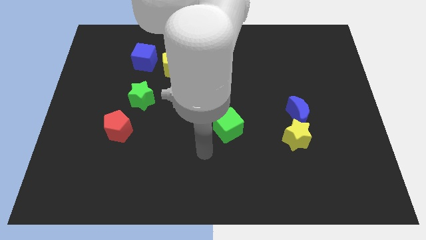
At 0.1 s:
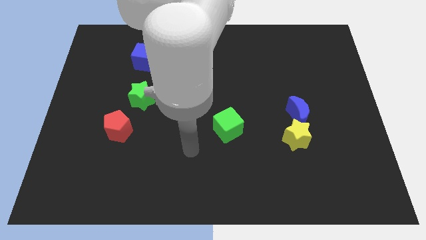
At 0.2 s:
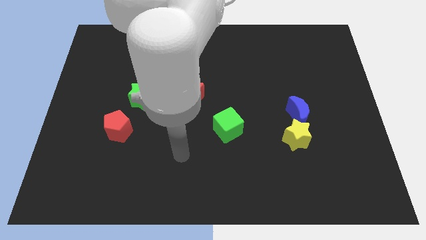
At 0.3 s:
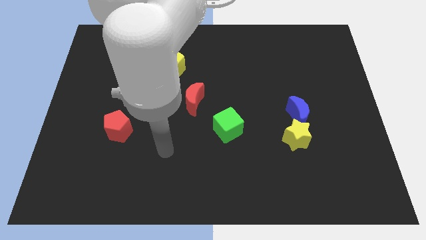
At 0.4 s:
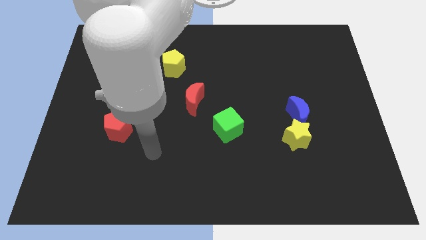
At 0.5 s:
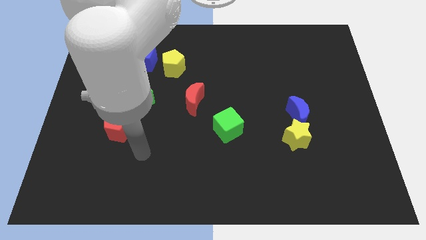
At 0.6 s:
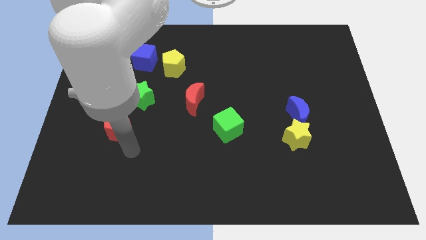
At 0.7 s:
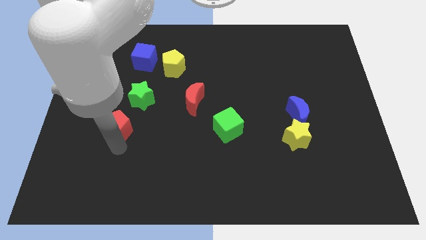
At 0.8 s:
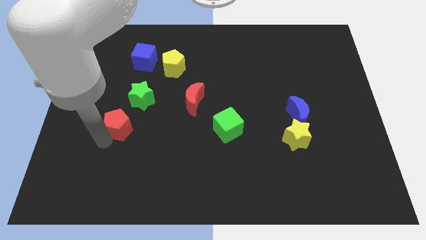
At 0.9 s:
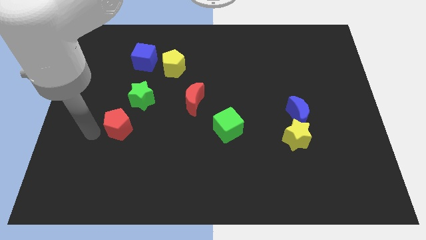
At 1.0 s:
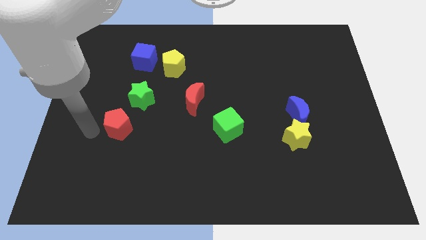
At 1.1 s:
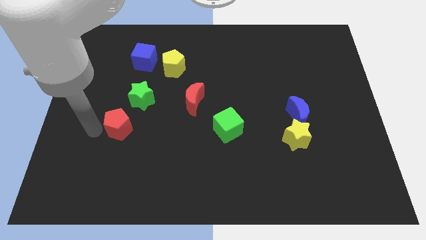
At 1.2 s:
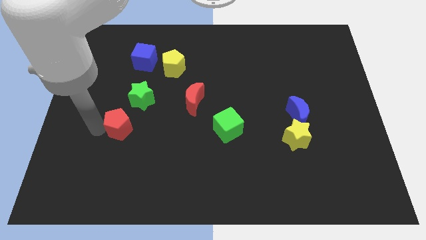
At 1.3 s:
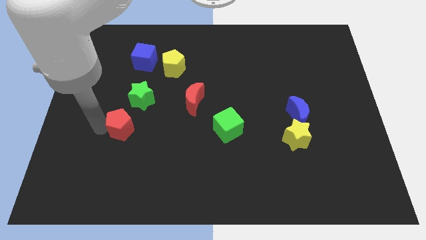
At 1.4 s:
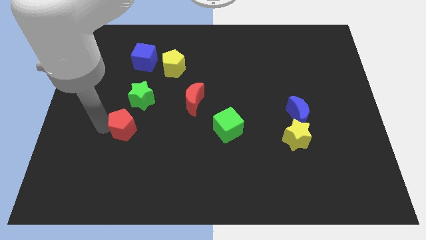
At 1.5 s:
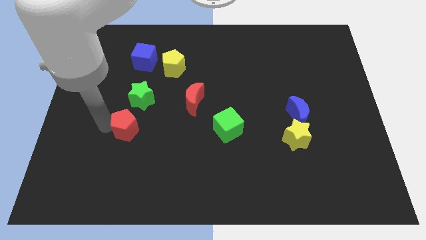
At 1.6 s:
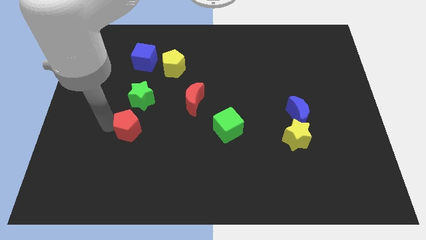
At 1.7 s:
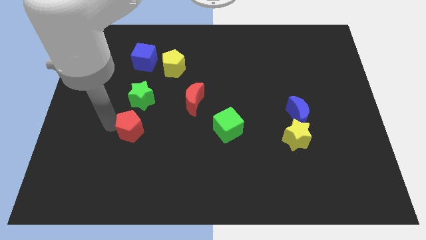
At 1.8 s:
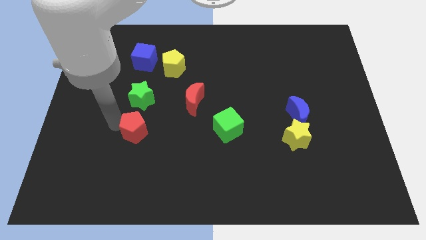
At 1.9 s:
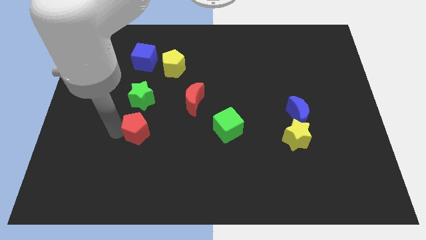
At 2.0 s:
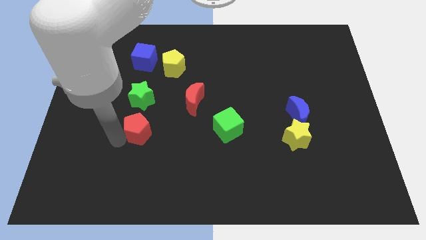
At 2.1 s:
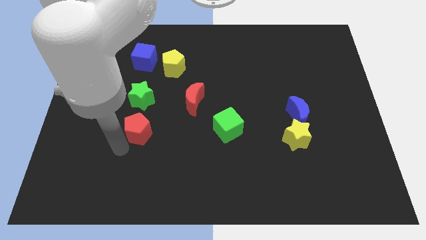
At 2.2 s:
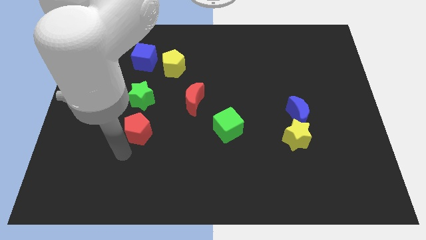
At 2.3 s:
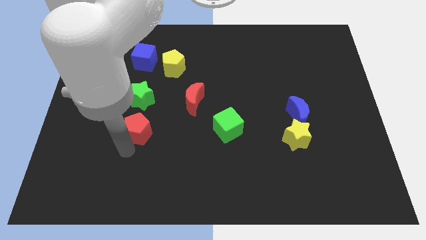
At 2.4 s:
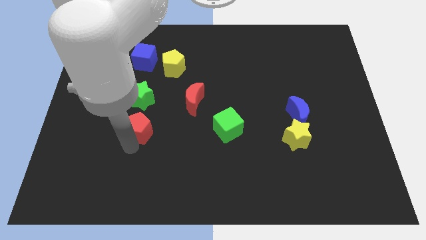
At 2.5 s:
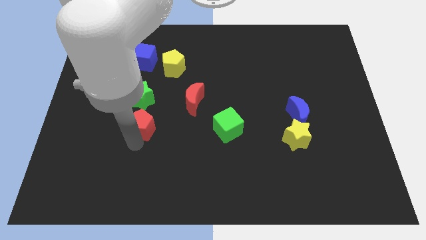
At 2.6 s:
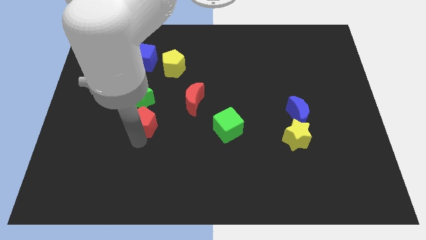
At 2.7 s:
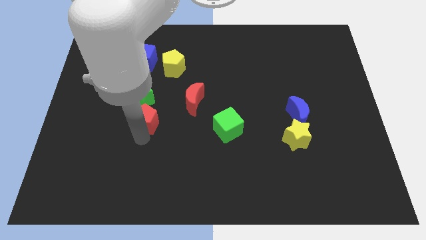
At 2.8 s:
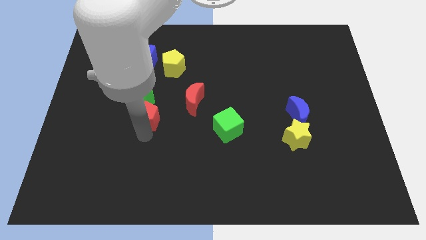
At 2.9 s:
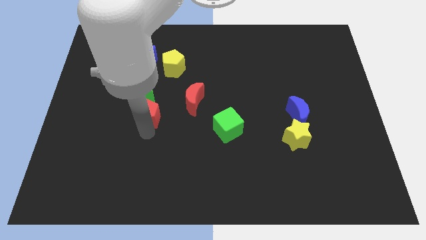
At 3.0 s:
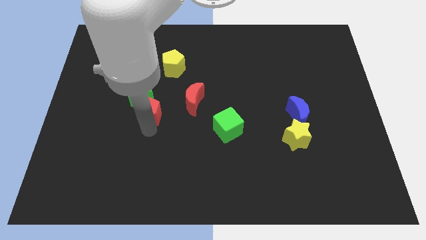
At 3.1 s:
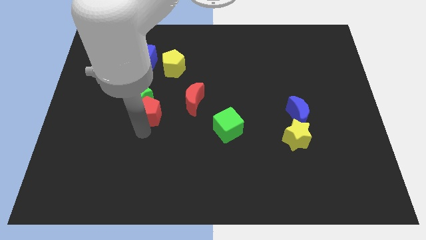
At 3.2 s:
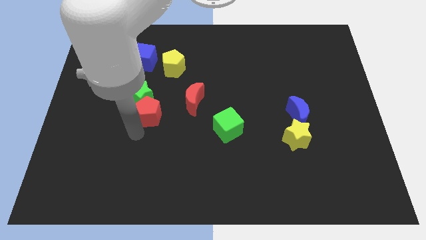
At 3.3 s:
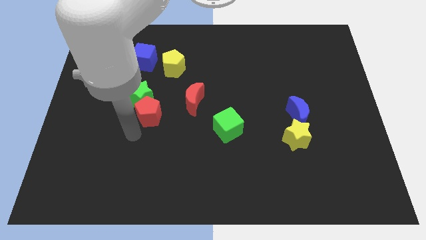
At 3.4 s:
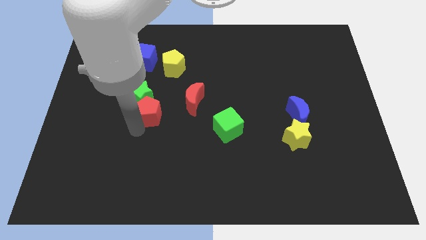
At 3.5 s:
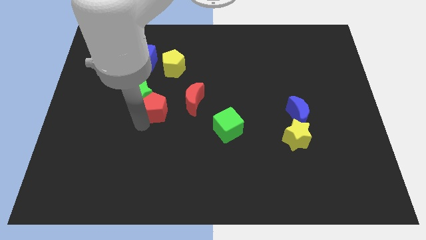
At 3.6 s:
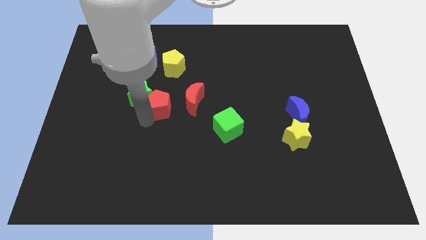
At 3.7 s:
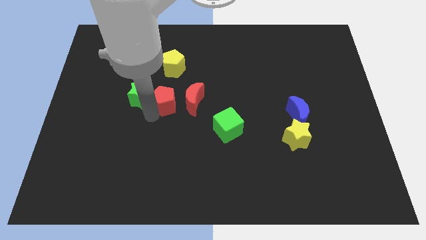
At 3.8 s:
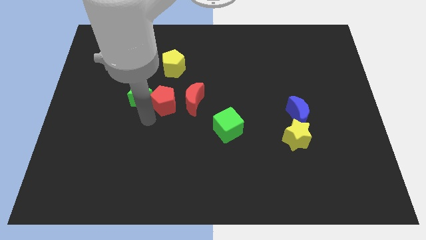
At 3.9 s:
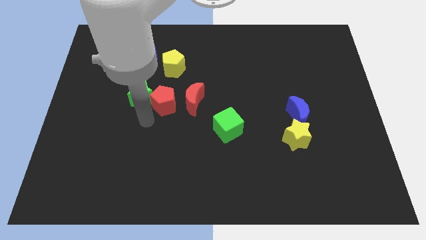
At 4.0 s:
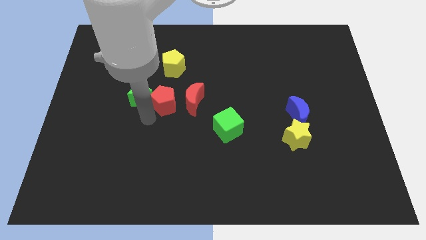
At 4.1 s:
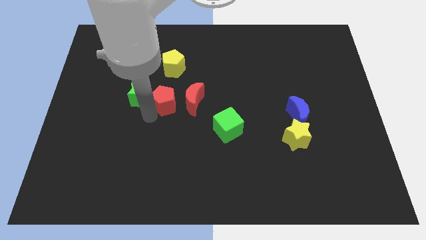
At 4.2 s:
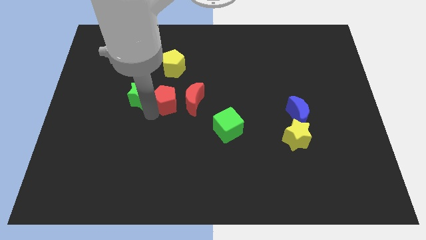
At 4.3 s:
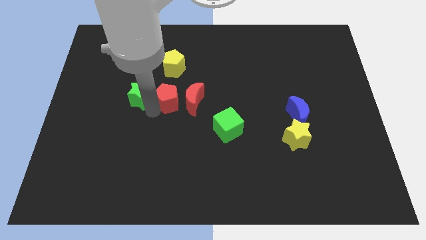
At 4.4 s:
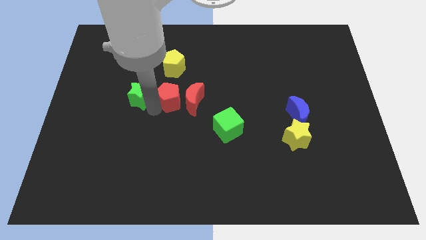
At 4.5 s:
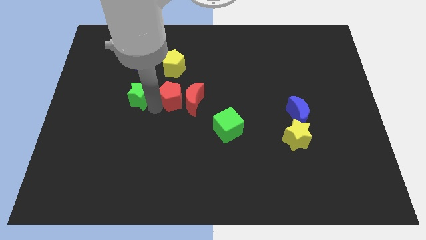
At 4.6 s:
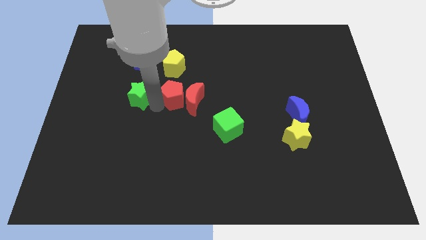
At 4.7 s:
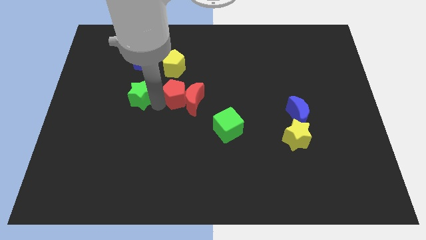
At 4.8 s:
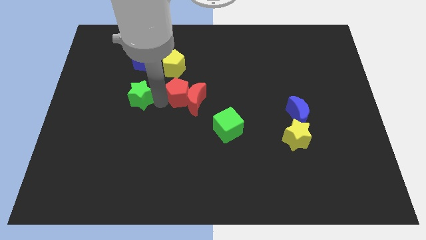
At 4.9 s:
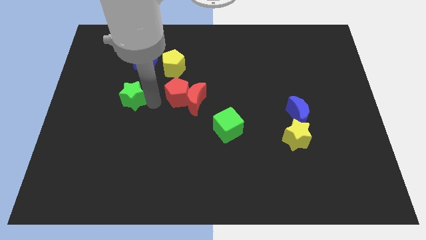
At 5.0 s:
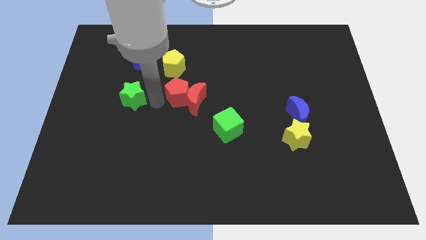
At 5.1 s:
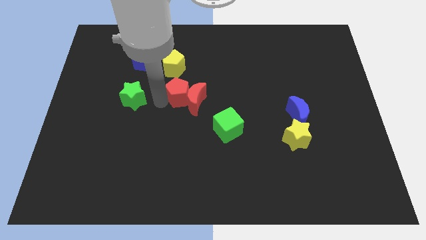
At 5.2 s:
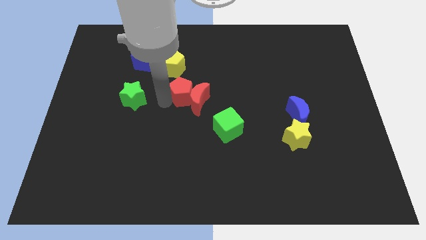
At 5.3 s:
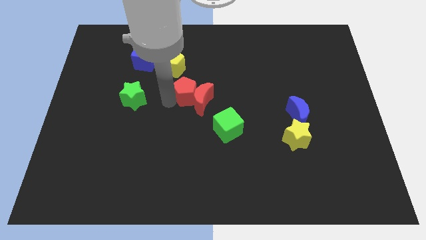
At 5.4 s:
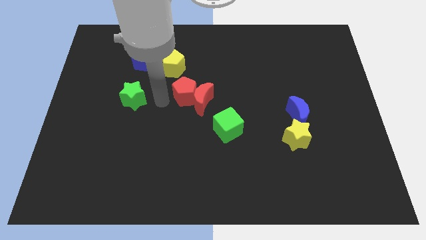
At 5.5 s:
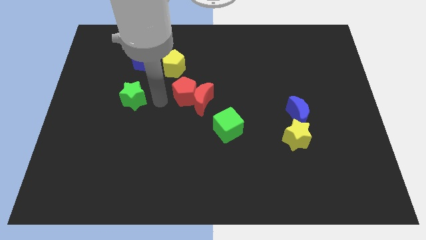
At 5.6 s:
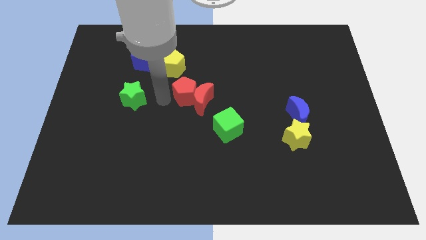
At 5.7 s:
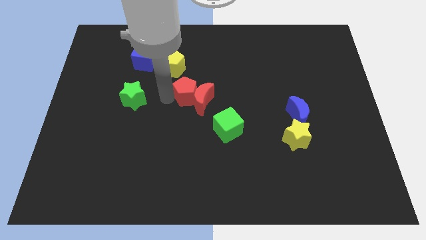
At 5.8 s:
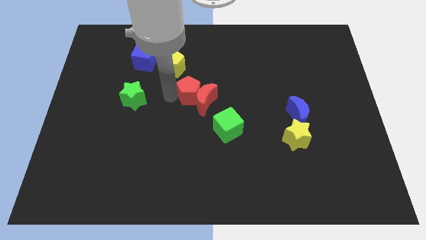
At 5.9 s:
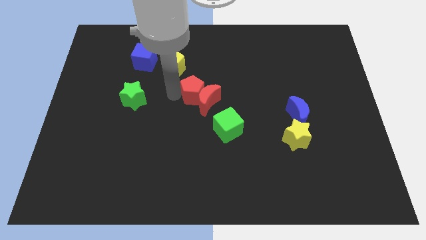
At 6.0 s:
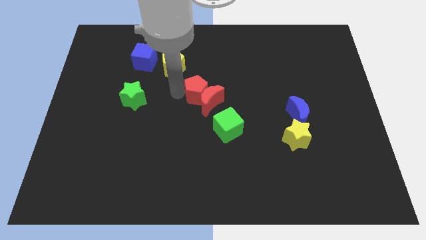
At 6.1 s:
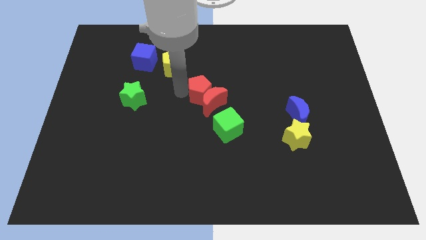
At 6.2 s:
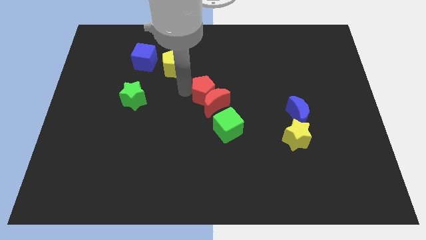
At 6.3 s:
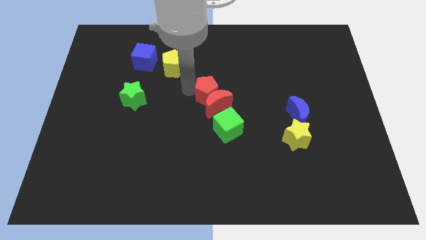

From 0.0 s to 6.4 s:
put the red pentagon to the top right side of the red moon
